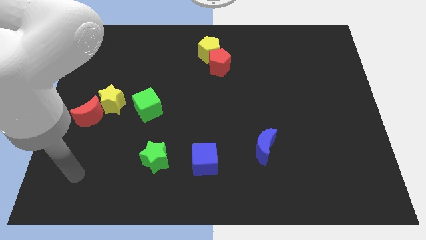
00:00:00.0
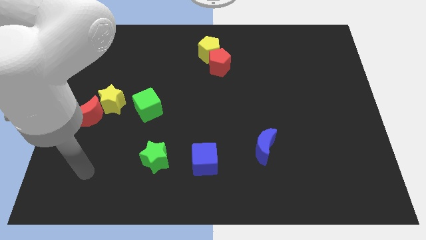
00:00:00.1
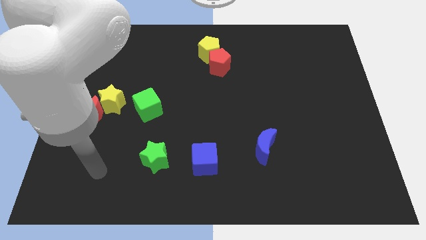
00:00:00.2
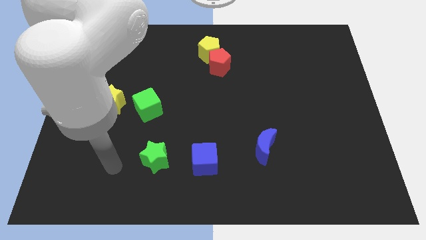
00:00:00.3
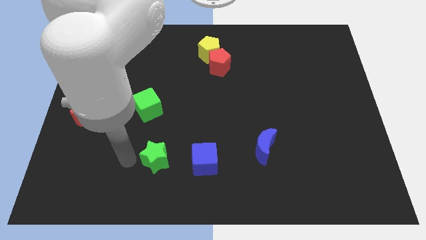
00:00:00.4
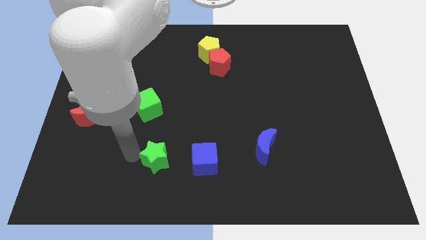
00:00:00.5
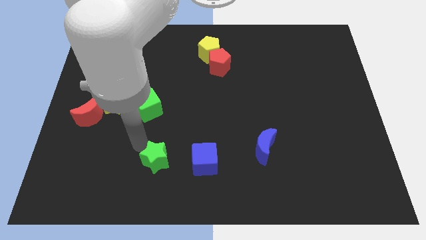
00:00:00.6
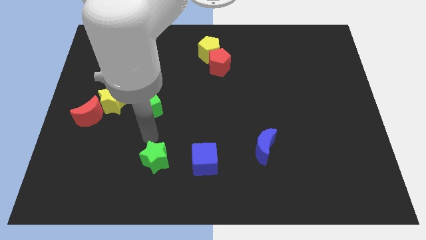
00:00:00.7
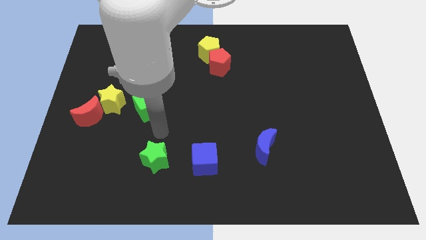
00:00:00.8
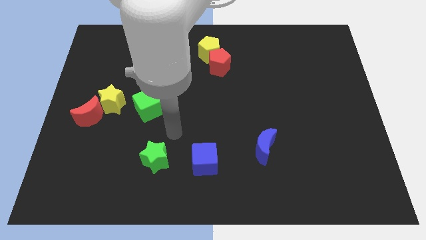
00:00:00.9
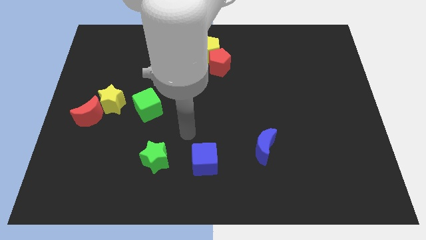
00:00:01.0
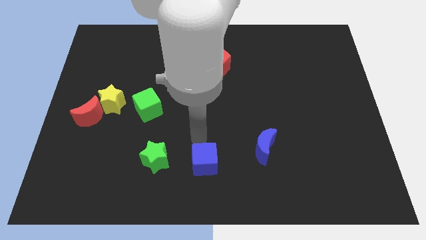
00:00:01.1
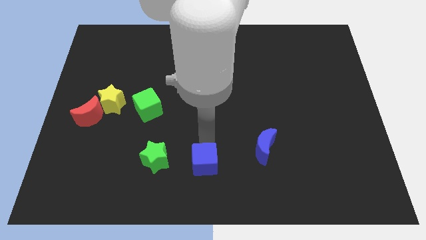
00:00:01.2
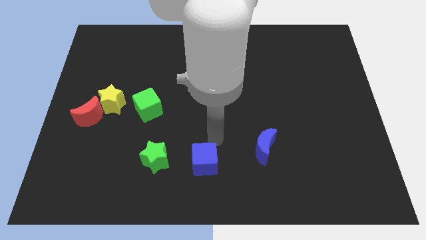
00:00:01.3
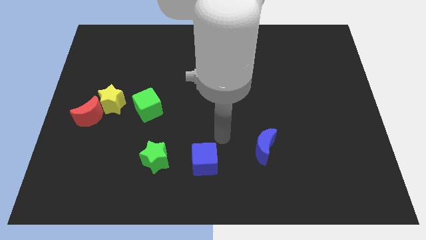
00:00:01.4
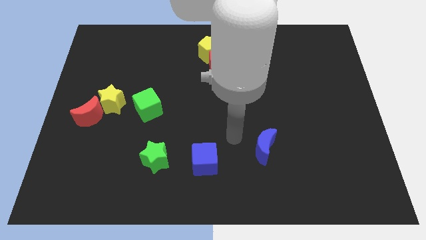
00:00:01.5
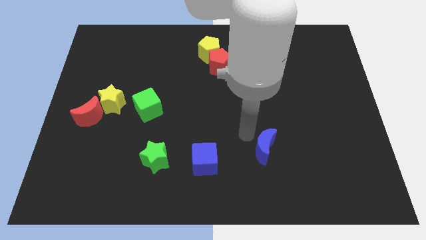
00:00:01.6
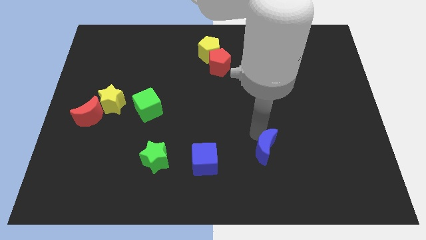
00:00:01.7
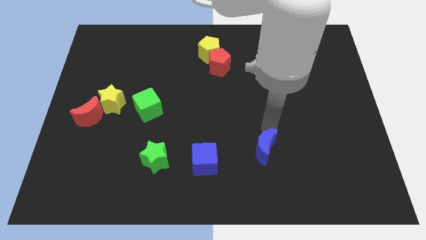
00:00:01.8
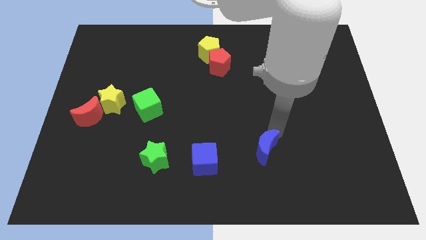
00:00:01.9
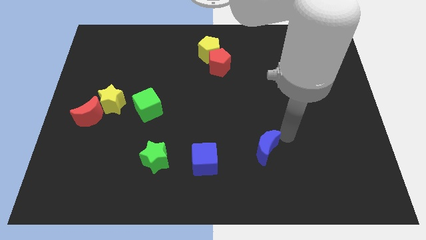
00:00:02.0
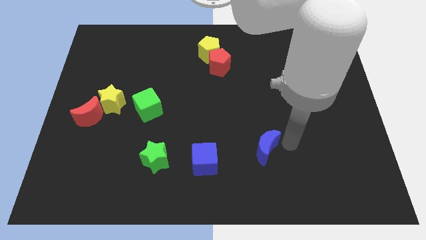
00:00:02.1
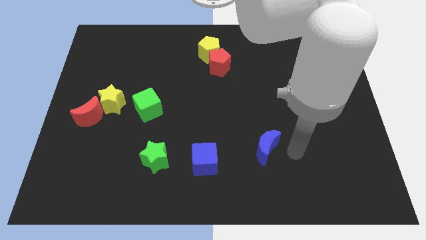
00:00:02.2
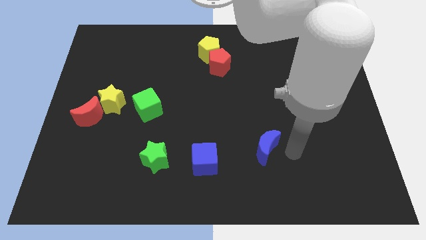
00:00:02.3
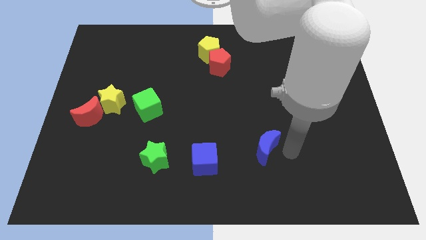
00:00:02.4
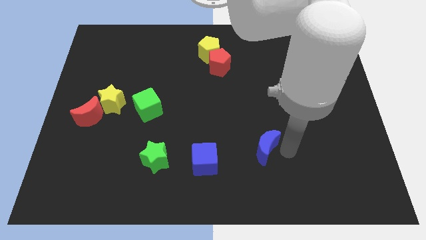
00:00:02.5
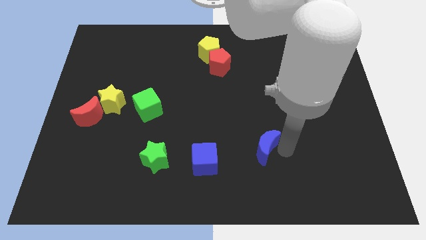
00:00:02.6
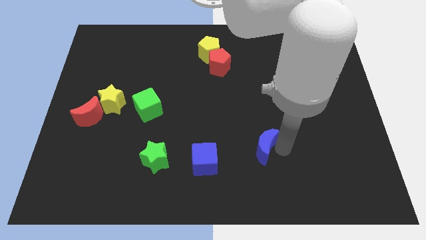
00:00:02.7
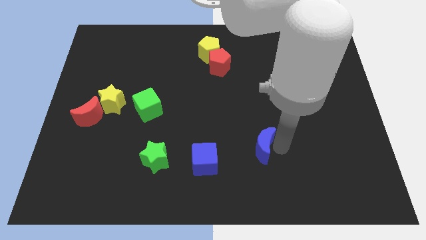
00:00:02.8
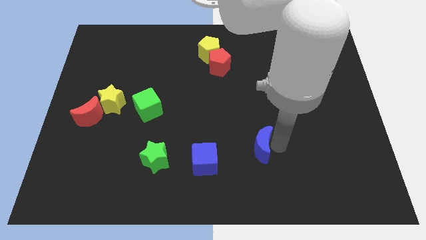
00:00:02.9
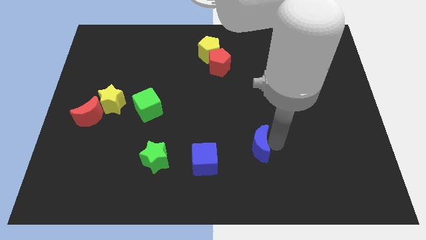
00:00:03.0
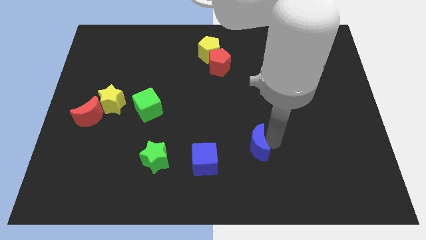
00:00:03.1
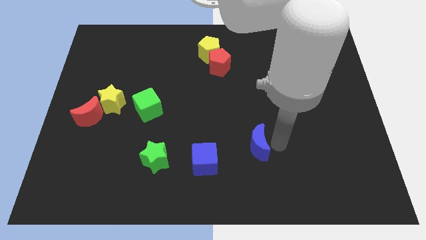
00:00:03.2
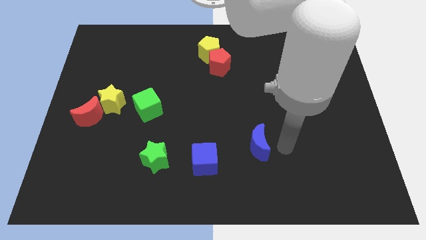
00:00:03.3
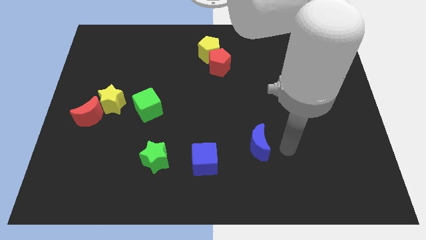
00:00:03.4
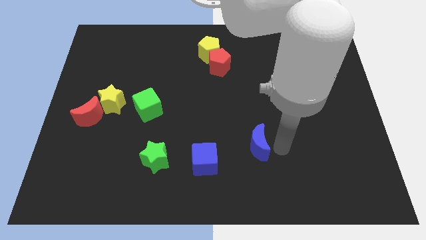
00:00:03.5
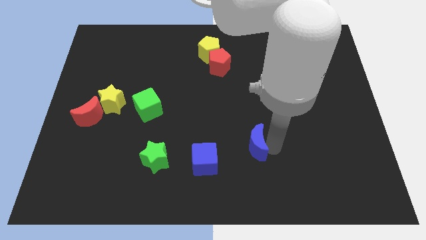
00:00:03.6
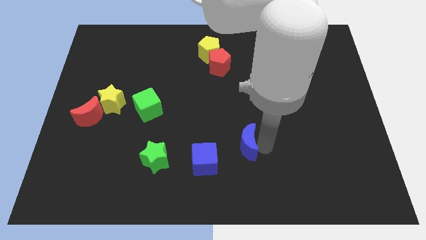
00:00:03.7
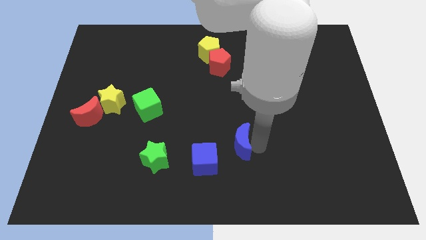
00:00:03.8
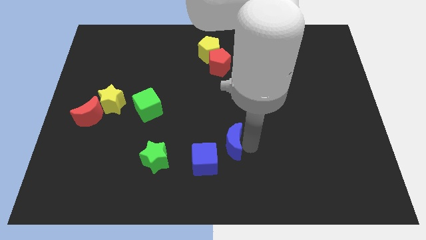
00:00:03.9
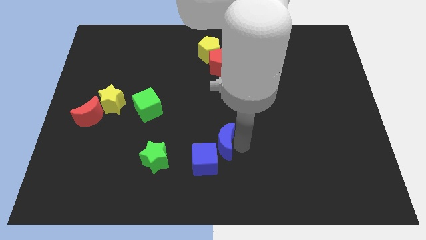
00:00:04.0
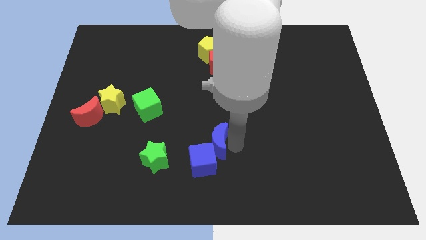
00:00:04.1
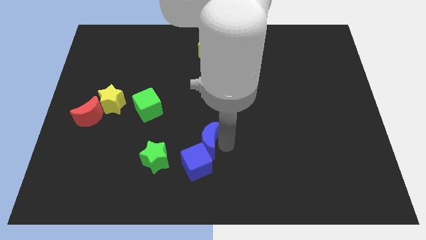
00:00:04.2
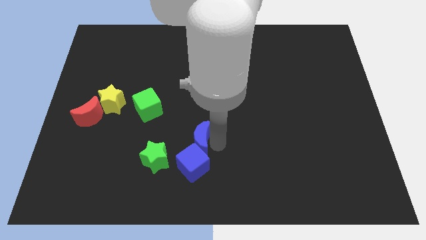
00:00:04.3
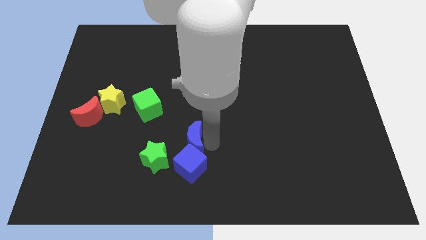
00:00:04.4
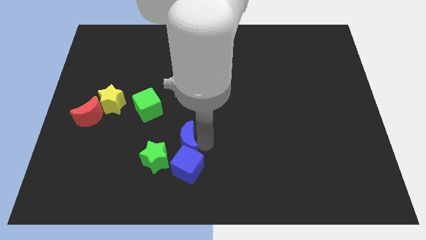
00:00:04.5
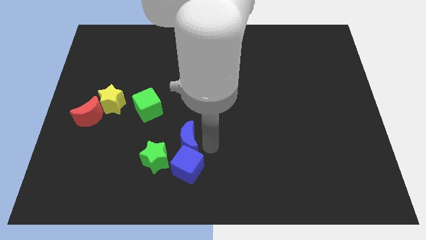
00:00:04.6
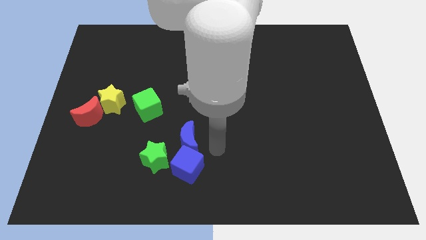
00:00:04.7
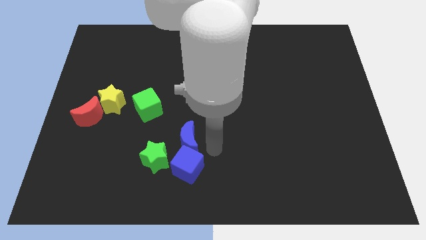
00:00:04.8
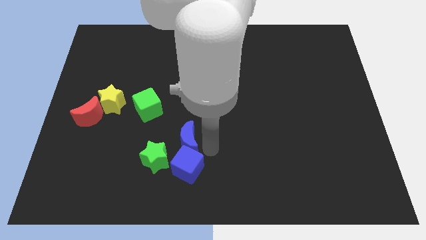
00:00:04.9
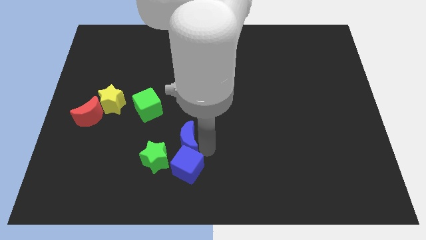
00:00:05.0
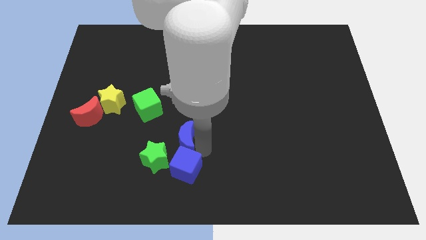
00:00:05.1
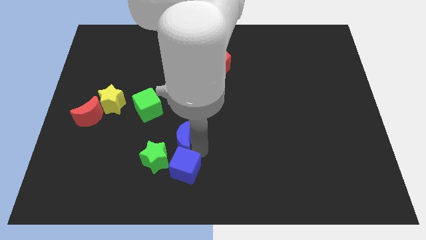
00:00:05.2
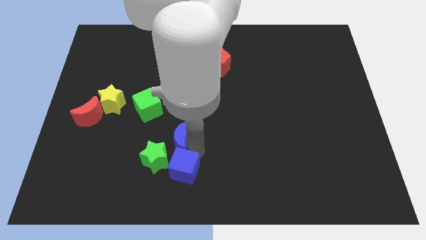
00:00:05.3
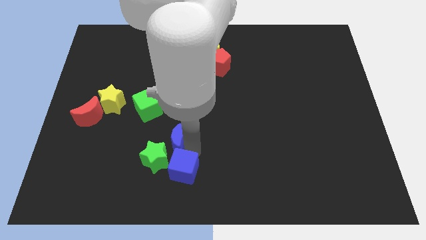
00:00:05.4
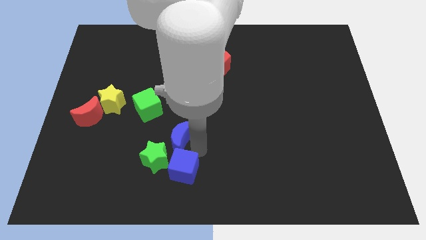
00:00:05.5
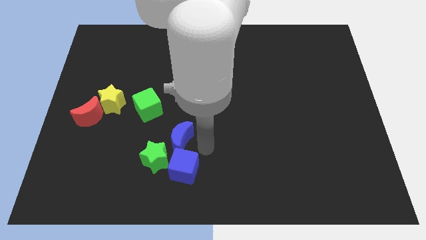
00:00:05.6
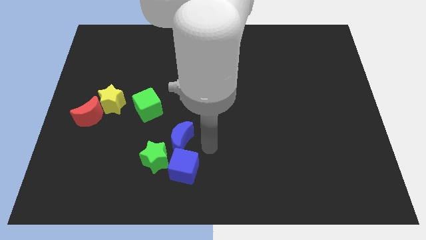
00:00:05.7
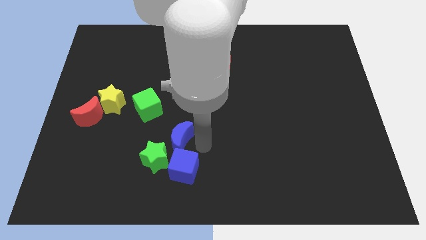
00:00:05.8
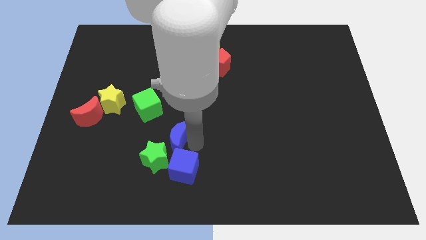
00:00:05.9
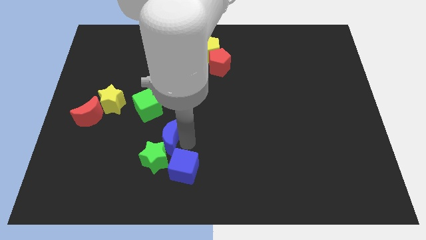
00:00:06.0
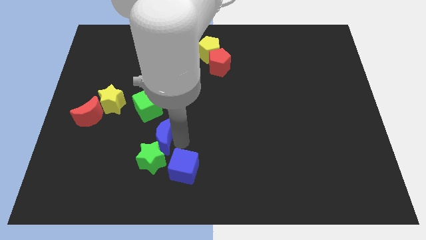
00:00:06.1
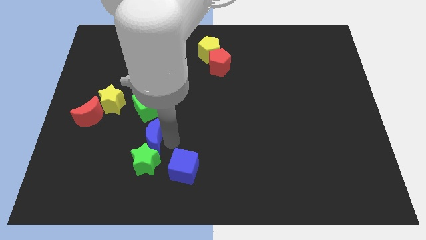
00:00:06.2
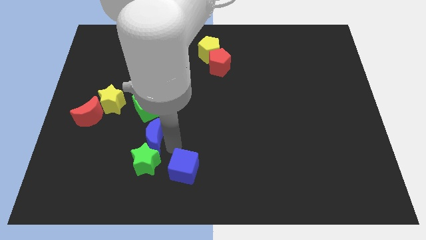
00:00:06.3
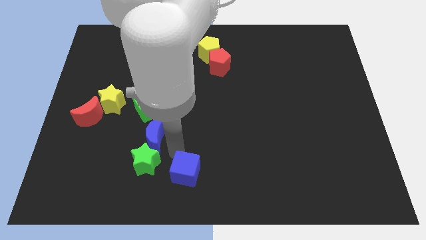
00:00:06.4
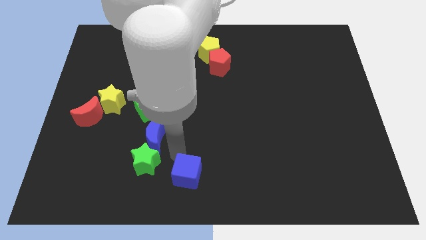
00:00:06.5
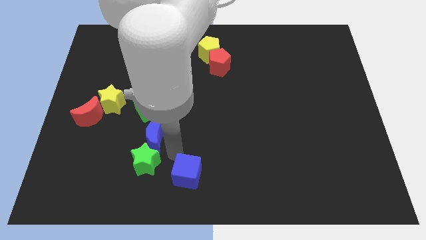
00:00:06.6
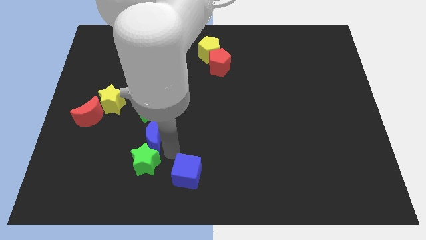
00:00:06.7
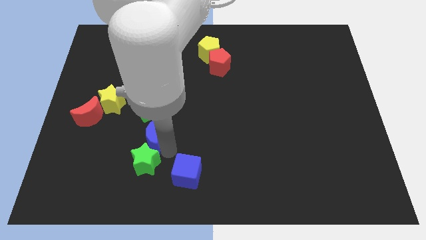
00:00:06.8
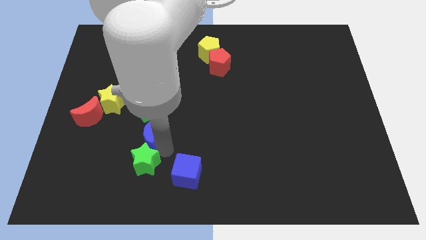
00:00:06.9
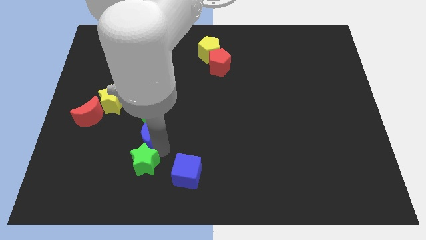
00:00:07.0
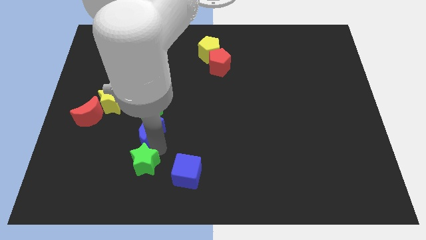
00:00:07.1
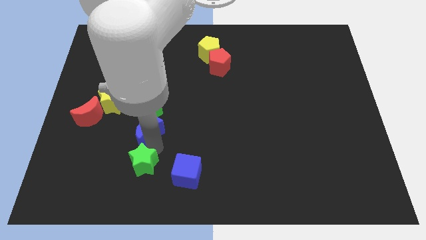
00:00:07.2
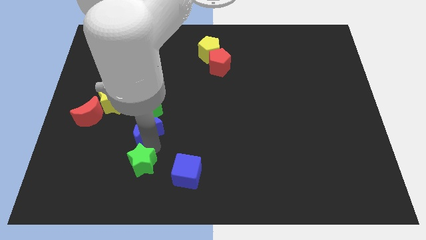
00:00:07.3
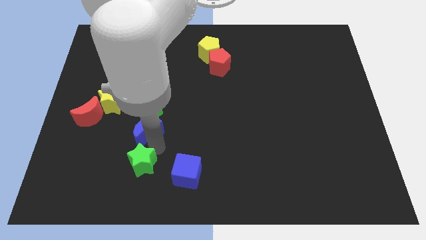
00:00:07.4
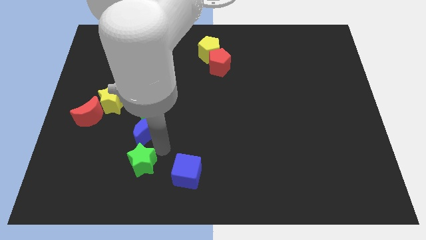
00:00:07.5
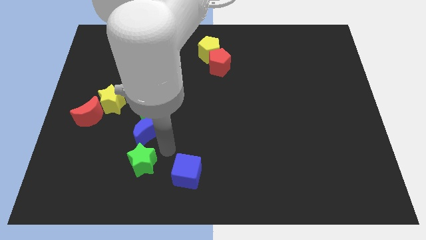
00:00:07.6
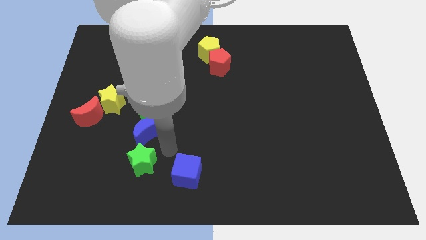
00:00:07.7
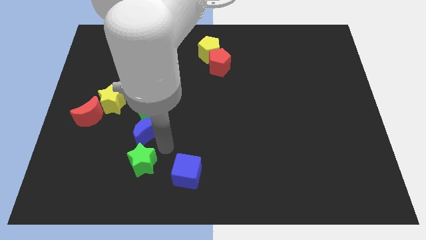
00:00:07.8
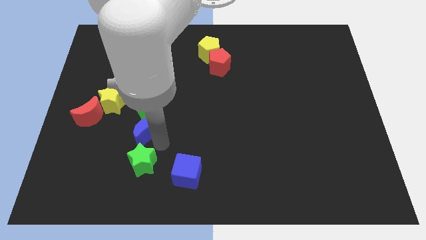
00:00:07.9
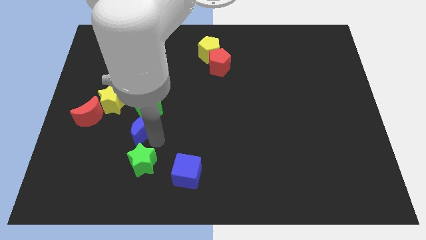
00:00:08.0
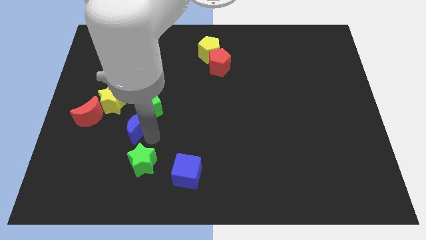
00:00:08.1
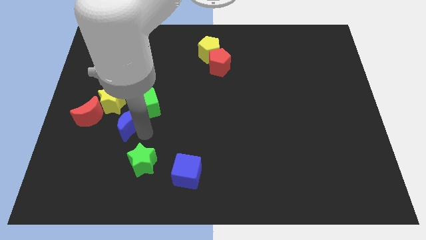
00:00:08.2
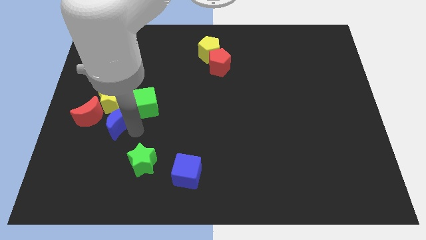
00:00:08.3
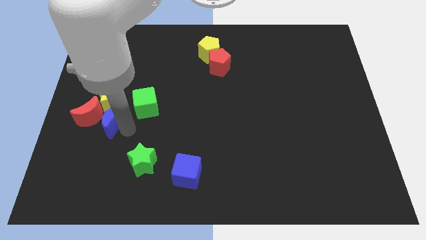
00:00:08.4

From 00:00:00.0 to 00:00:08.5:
push the blue moon towards the yellow star
